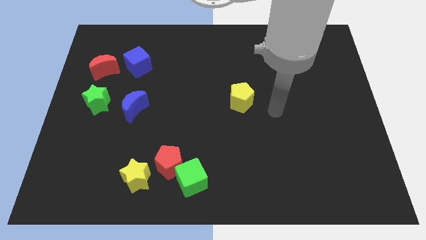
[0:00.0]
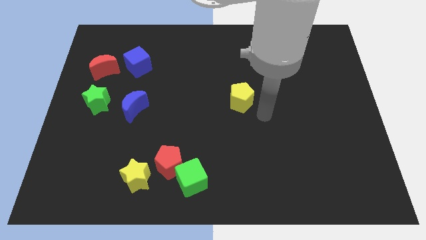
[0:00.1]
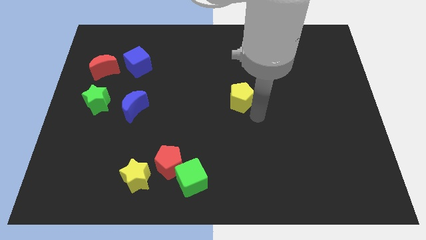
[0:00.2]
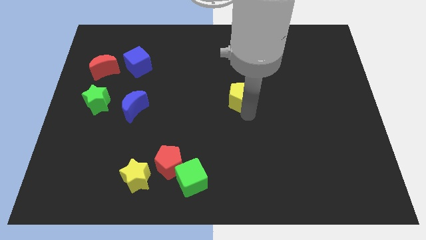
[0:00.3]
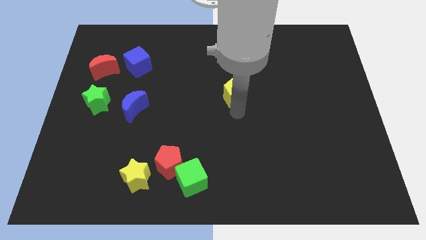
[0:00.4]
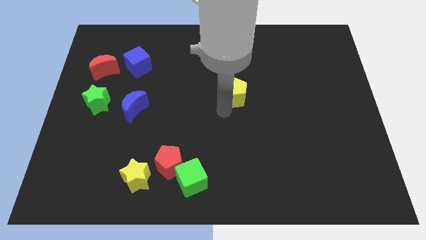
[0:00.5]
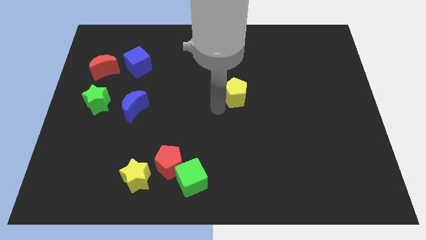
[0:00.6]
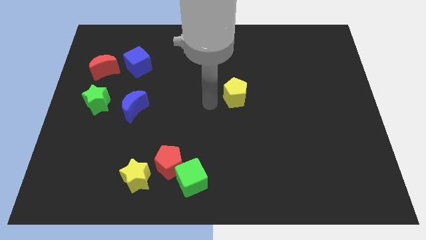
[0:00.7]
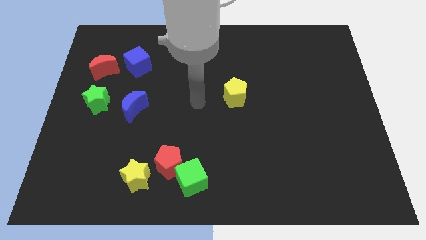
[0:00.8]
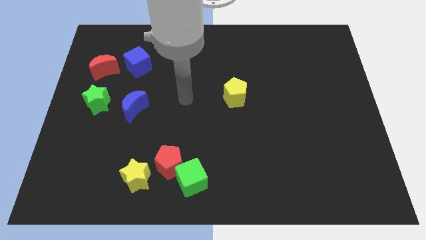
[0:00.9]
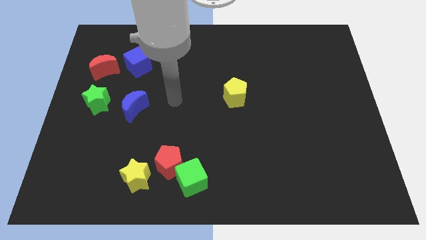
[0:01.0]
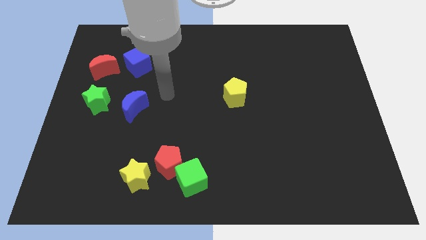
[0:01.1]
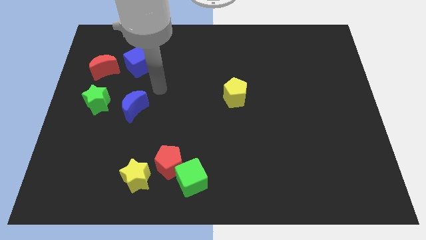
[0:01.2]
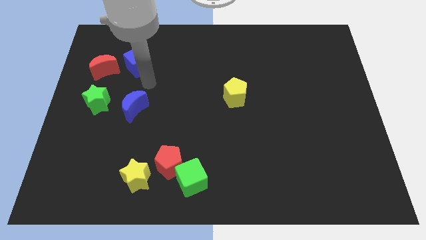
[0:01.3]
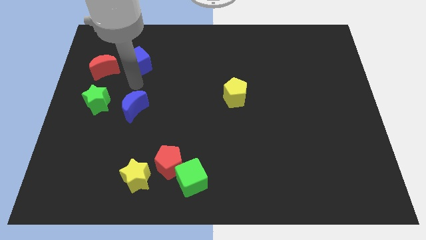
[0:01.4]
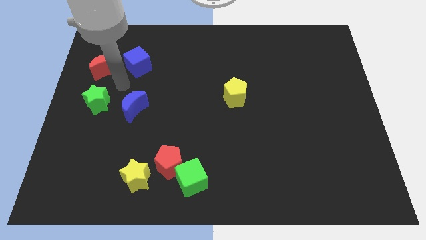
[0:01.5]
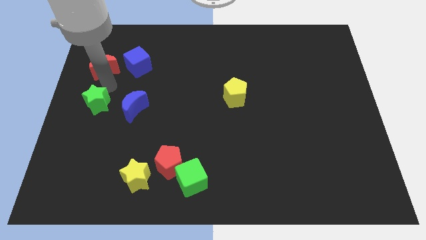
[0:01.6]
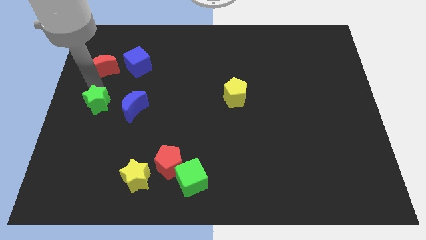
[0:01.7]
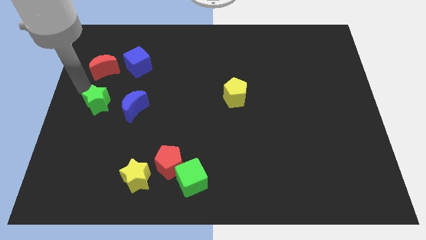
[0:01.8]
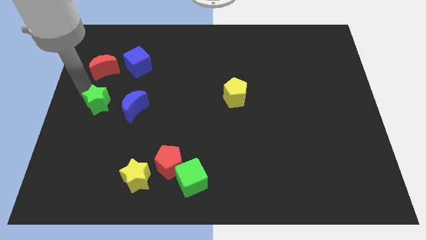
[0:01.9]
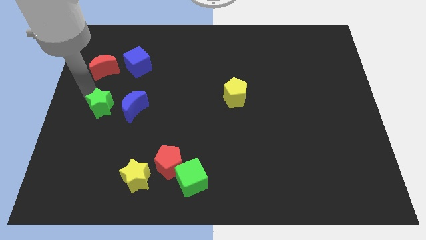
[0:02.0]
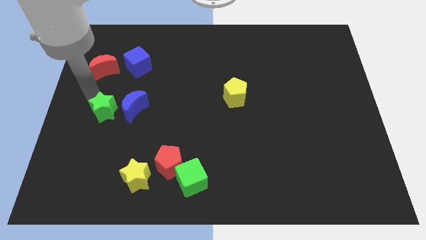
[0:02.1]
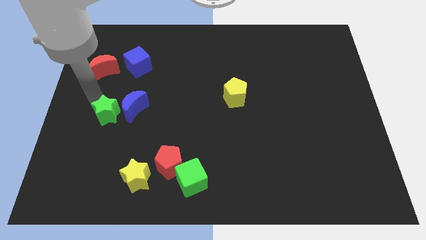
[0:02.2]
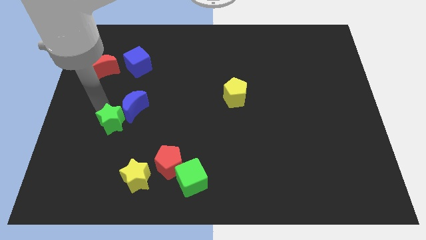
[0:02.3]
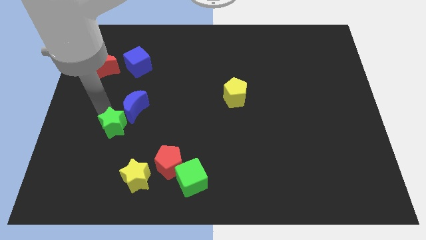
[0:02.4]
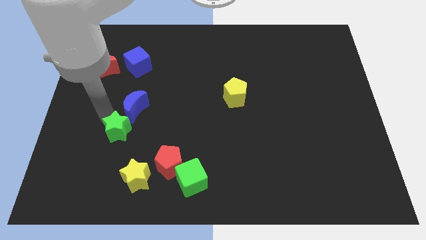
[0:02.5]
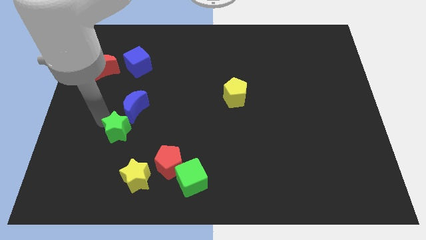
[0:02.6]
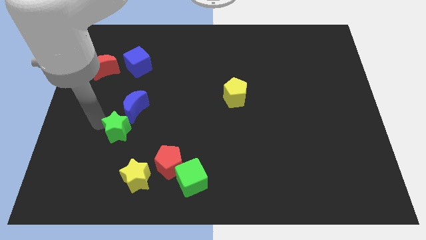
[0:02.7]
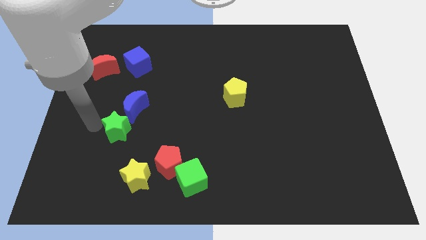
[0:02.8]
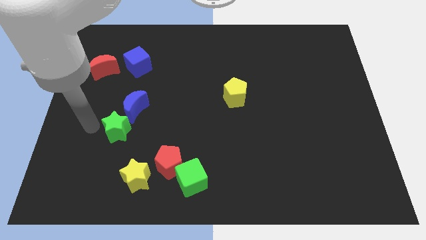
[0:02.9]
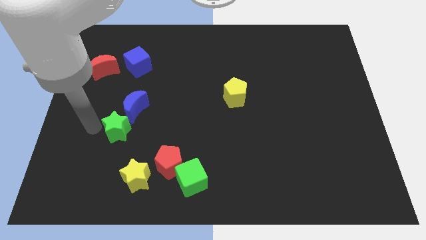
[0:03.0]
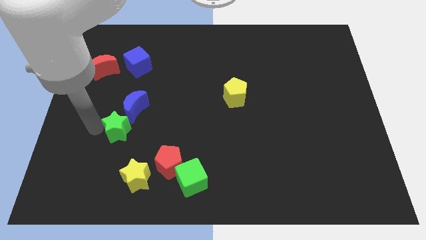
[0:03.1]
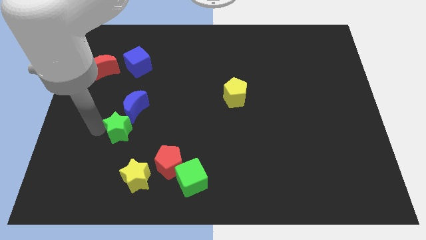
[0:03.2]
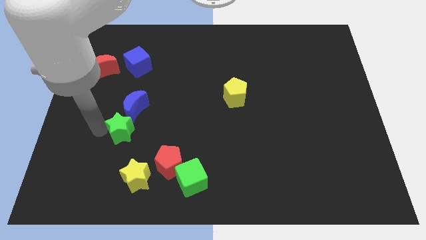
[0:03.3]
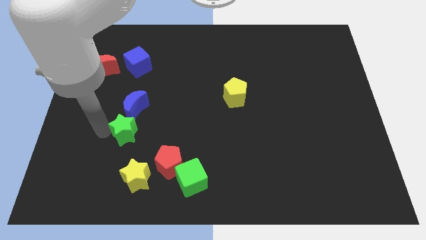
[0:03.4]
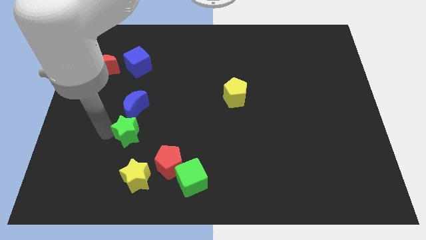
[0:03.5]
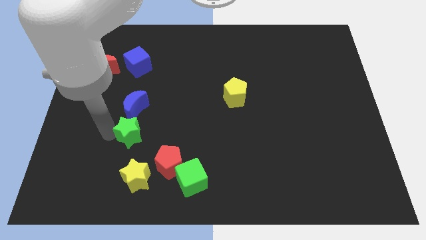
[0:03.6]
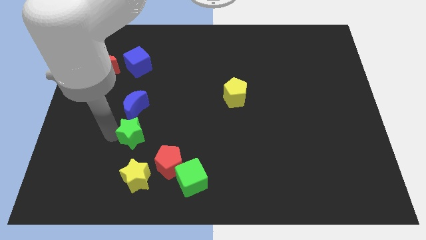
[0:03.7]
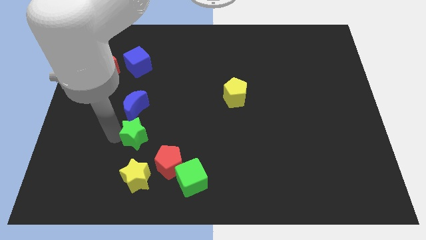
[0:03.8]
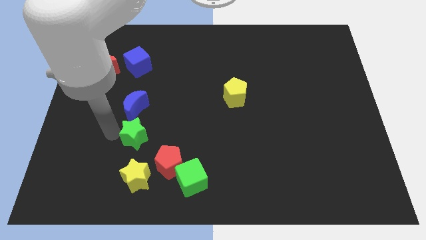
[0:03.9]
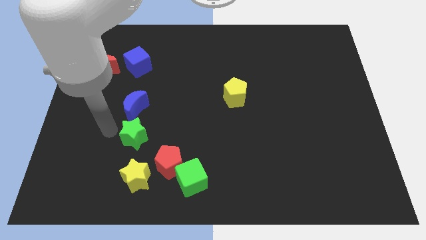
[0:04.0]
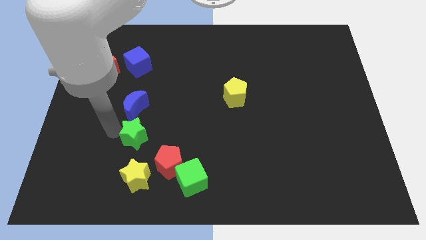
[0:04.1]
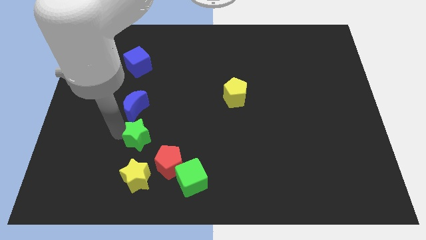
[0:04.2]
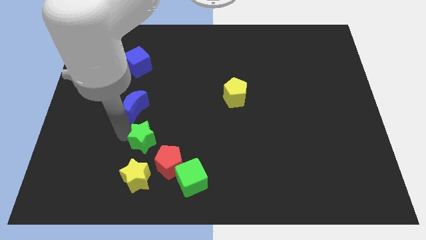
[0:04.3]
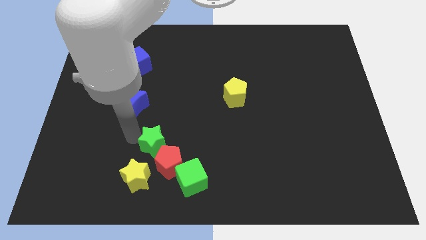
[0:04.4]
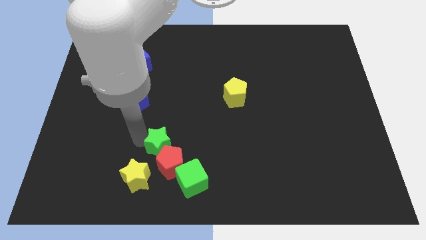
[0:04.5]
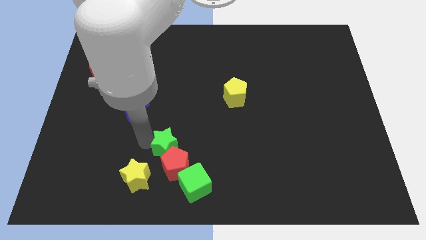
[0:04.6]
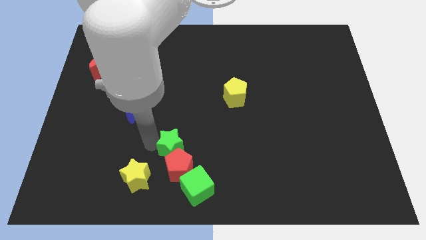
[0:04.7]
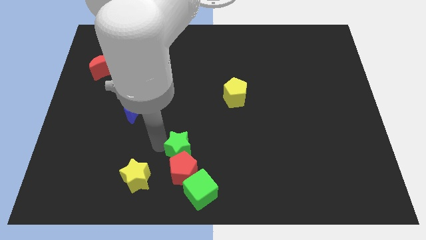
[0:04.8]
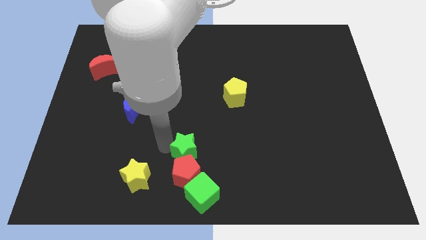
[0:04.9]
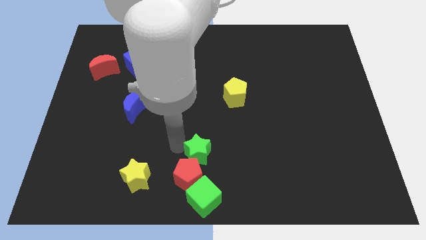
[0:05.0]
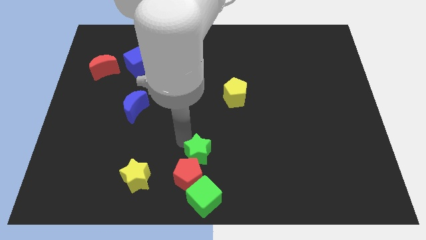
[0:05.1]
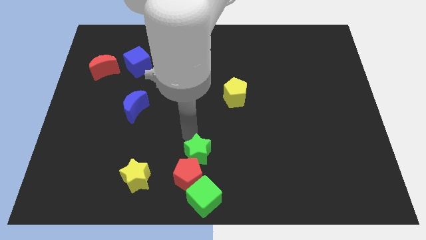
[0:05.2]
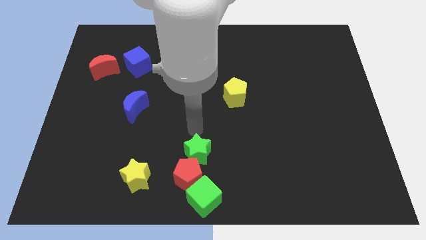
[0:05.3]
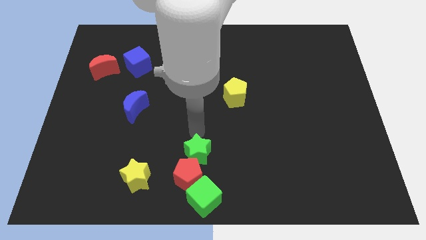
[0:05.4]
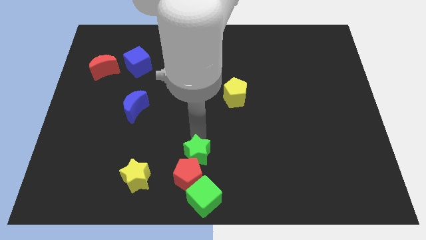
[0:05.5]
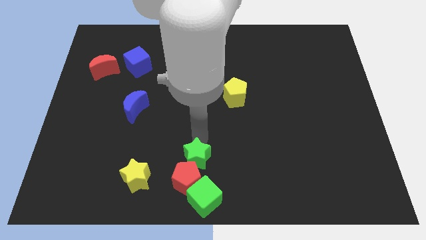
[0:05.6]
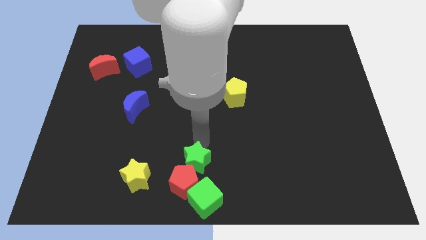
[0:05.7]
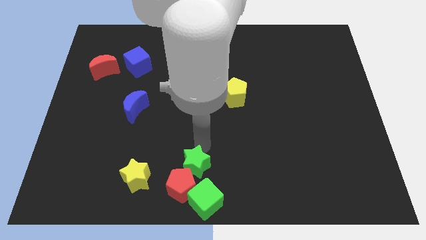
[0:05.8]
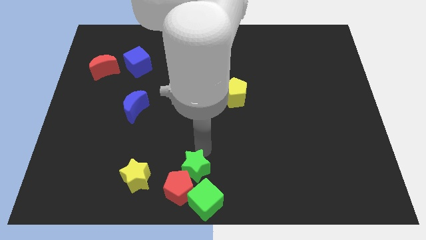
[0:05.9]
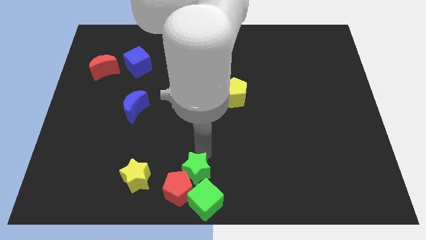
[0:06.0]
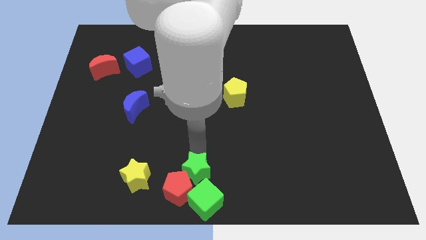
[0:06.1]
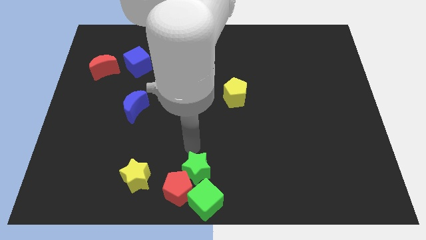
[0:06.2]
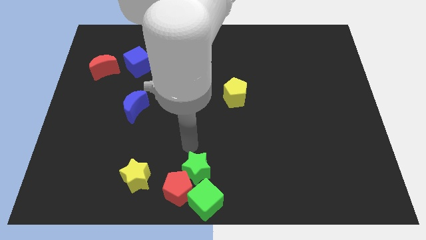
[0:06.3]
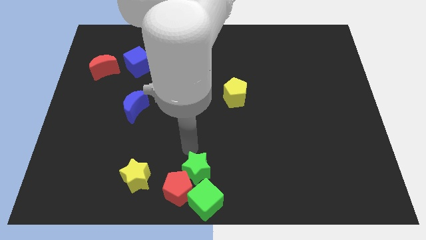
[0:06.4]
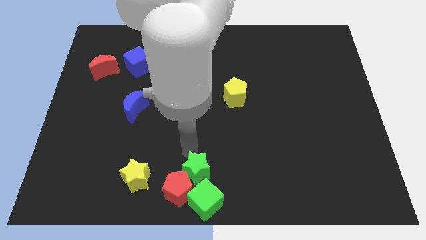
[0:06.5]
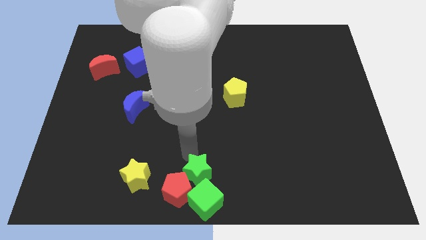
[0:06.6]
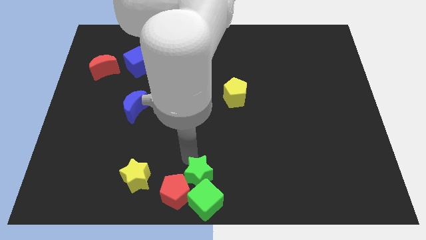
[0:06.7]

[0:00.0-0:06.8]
put the green star to the green cube
